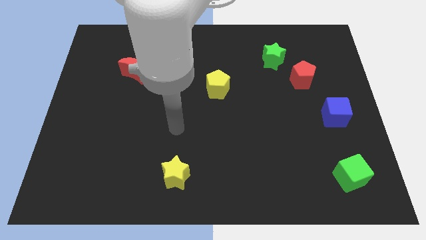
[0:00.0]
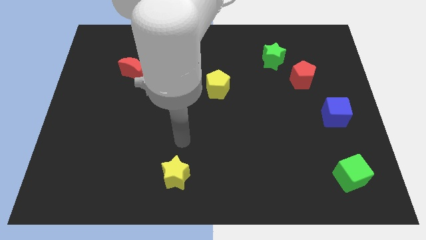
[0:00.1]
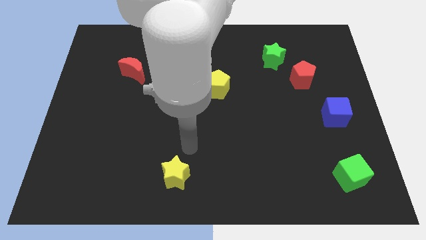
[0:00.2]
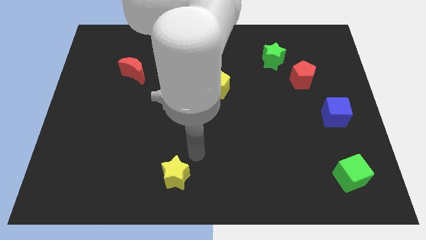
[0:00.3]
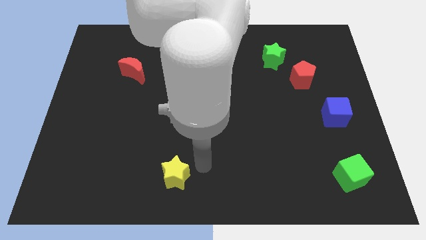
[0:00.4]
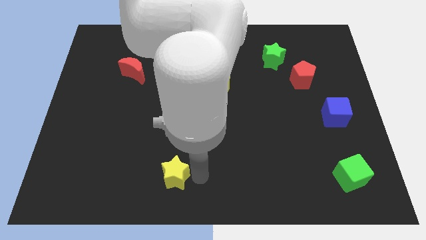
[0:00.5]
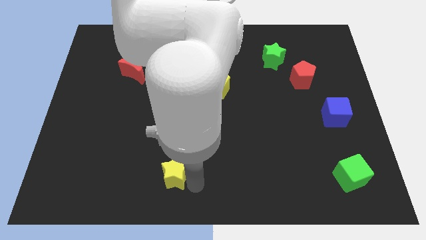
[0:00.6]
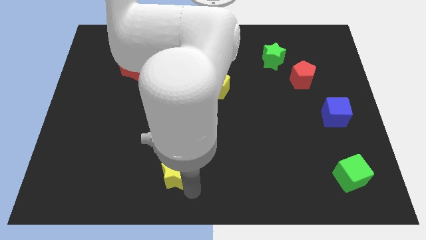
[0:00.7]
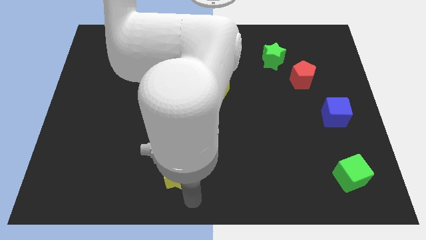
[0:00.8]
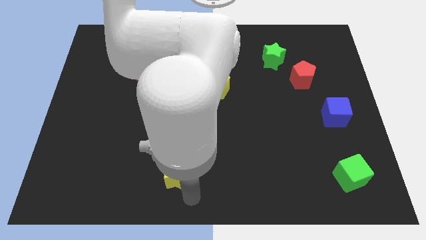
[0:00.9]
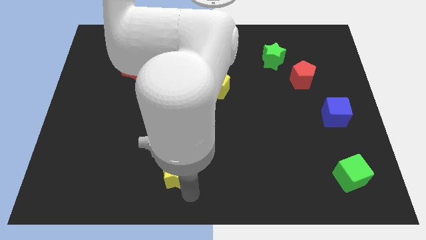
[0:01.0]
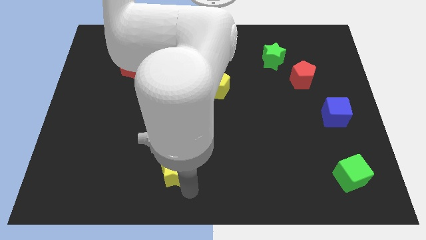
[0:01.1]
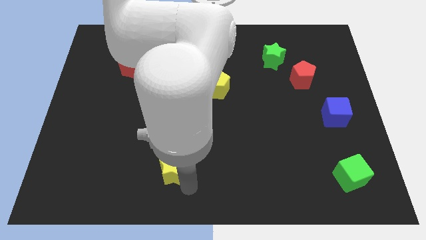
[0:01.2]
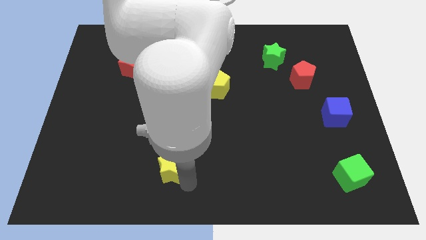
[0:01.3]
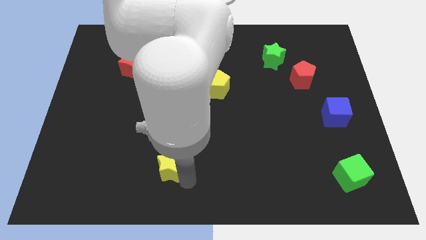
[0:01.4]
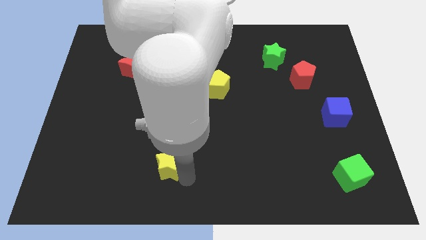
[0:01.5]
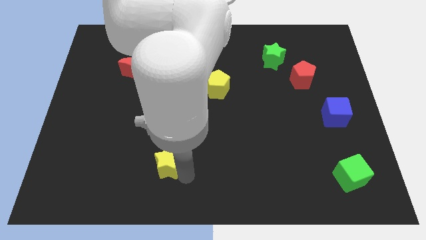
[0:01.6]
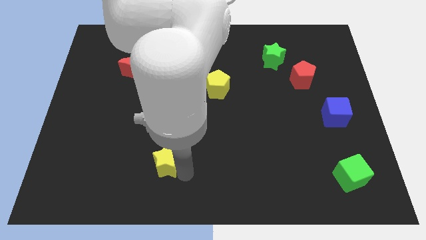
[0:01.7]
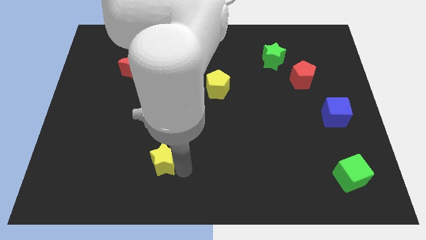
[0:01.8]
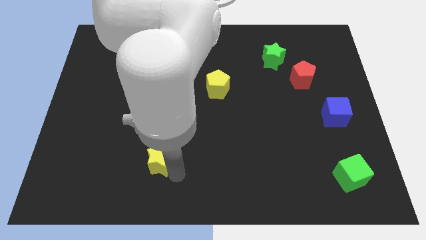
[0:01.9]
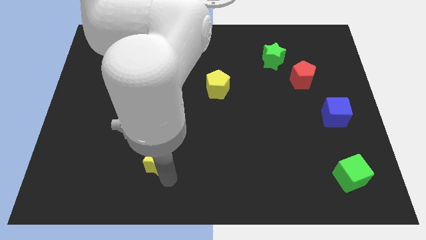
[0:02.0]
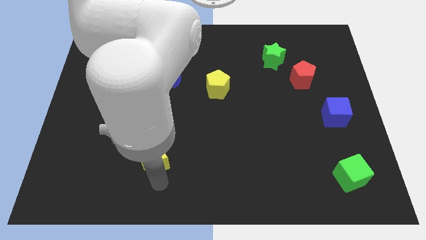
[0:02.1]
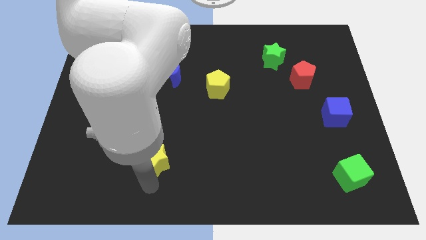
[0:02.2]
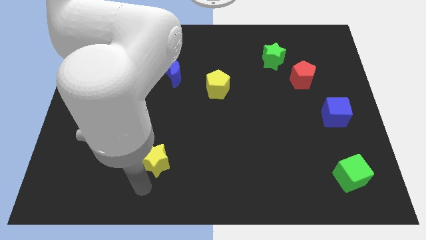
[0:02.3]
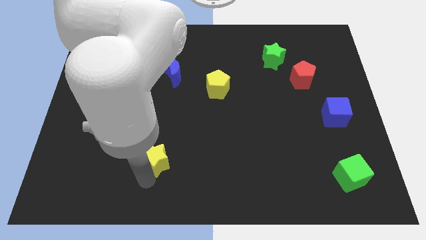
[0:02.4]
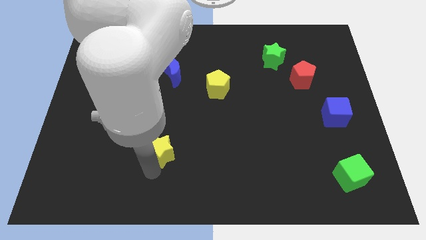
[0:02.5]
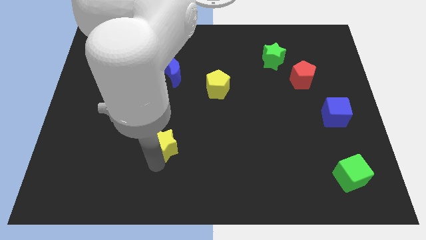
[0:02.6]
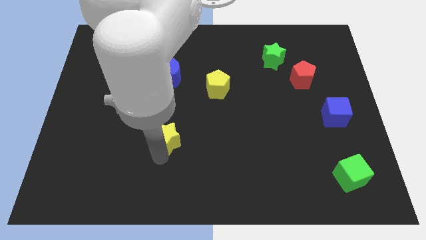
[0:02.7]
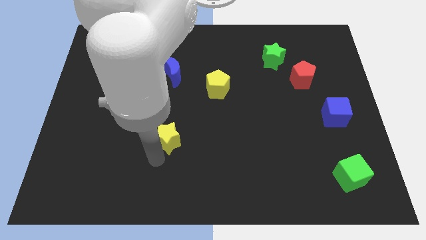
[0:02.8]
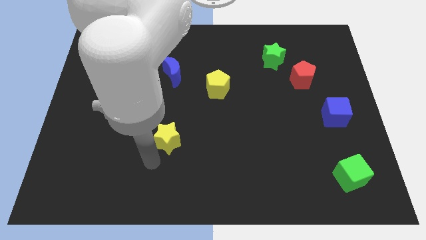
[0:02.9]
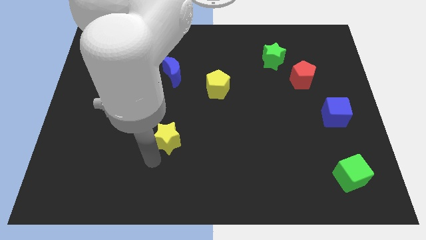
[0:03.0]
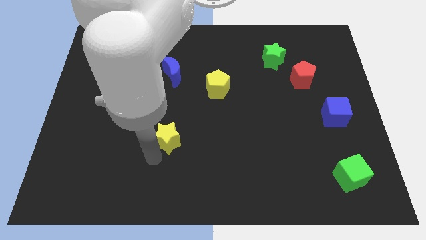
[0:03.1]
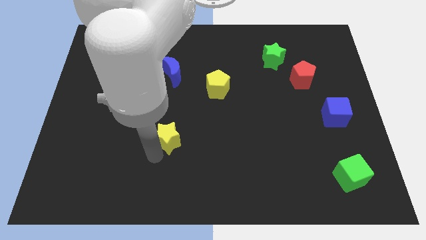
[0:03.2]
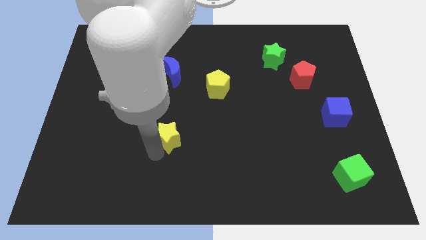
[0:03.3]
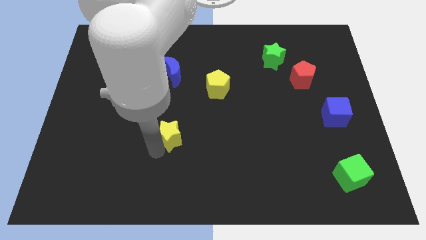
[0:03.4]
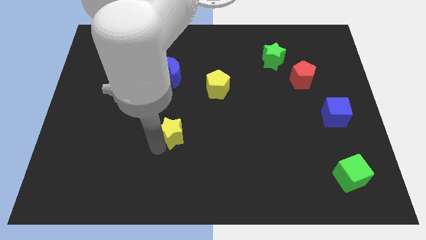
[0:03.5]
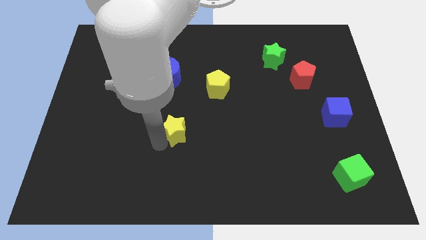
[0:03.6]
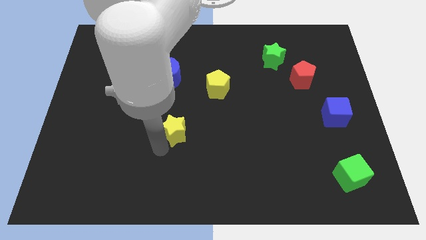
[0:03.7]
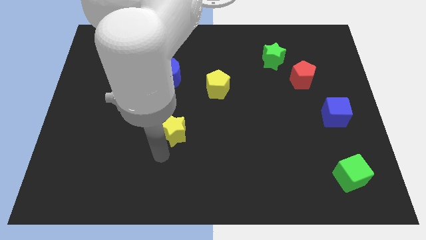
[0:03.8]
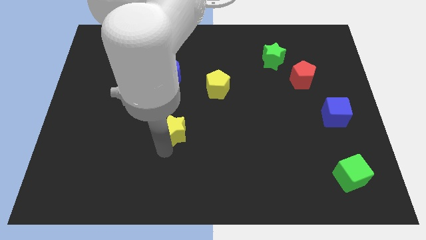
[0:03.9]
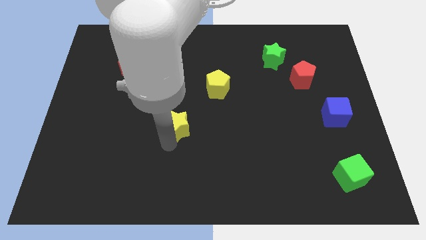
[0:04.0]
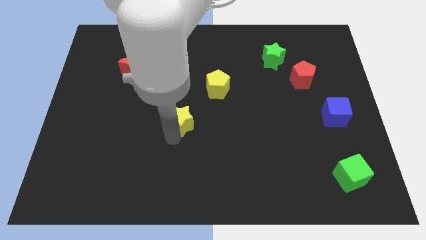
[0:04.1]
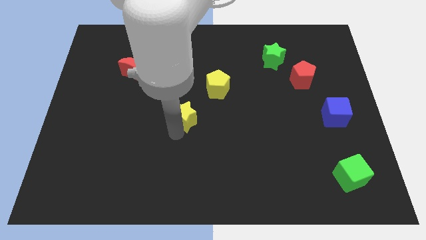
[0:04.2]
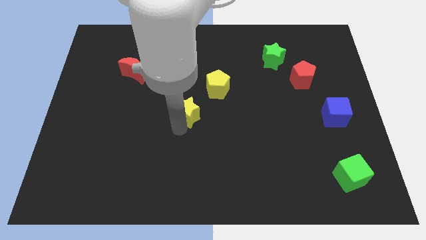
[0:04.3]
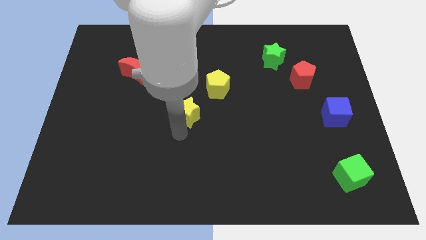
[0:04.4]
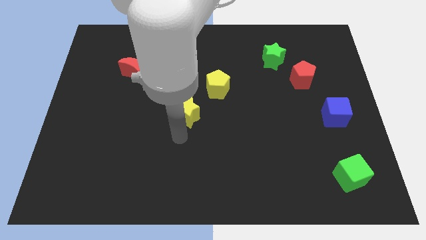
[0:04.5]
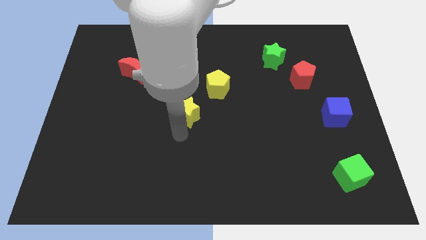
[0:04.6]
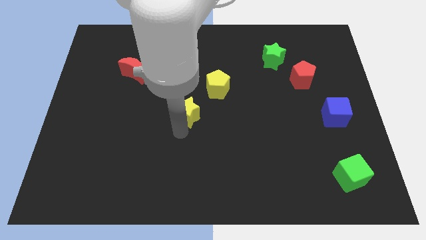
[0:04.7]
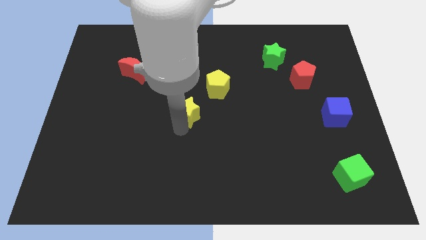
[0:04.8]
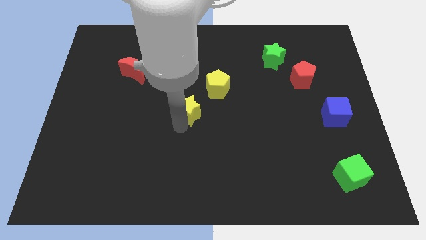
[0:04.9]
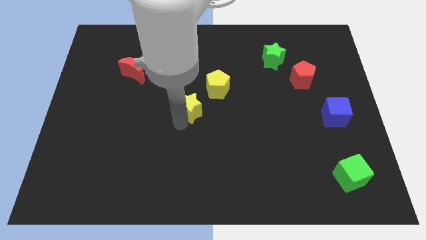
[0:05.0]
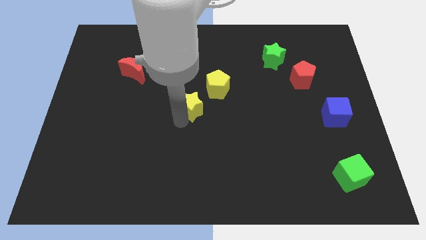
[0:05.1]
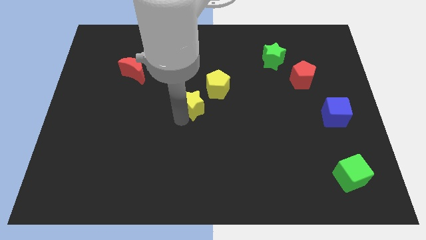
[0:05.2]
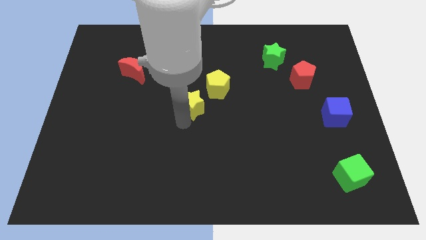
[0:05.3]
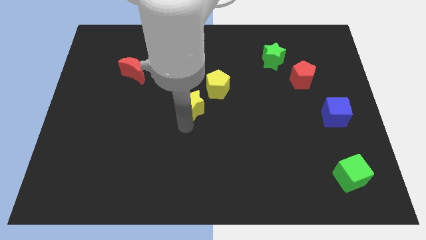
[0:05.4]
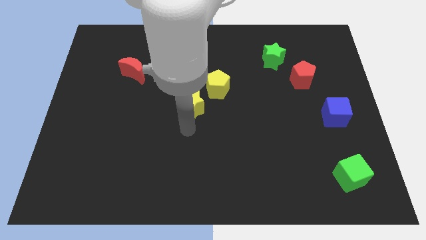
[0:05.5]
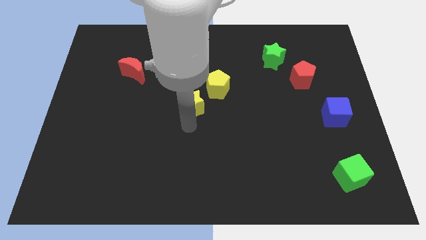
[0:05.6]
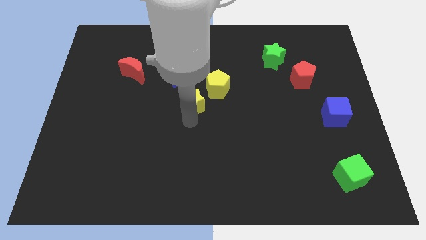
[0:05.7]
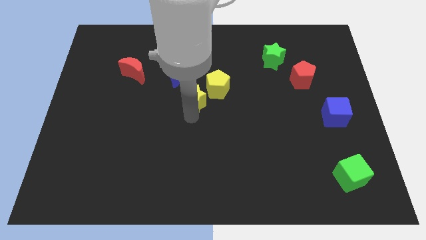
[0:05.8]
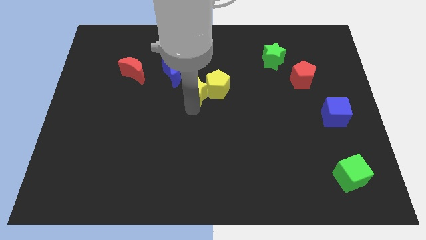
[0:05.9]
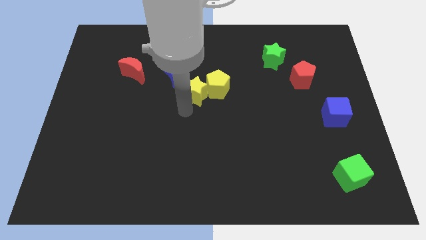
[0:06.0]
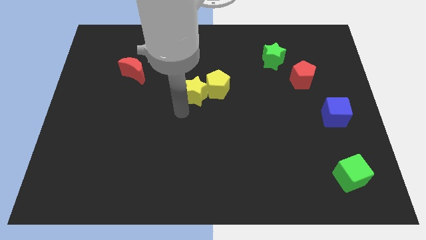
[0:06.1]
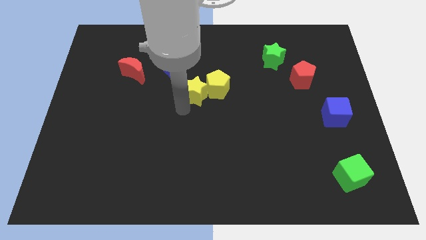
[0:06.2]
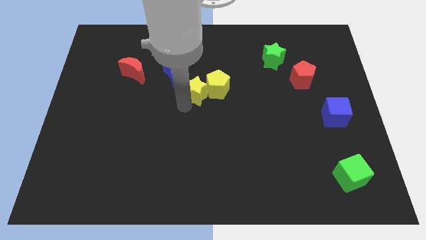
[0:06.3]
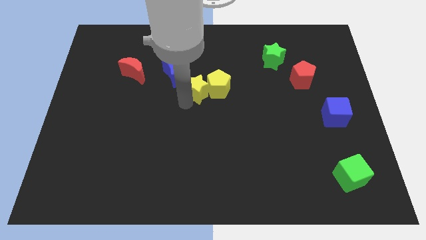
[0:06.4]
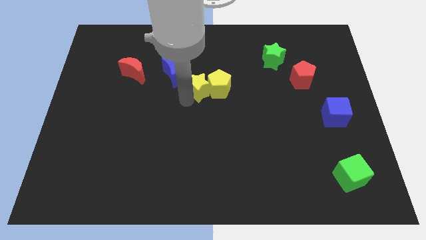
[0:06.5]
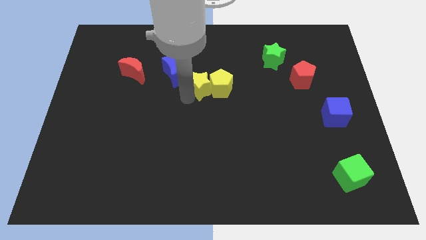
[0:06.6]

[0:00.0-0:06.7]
move the yellow star to the right side of the blue moon

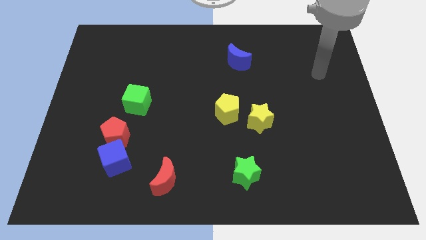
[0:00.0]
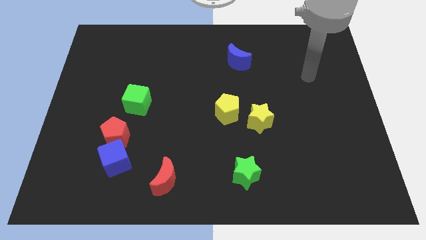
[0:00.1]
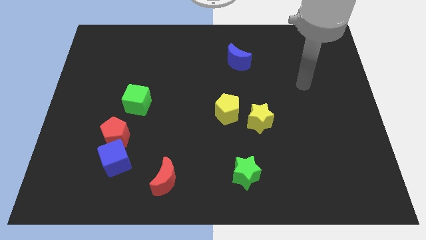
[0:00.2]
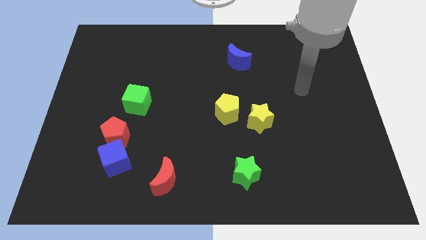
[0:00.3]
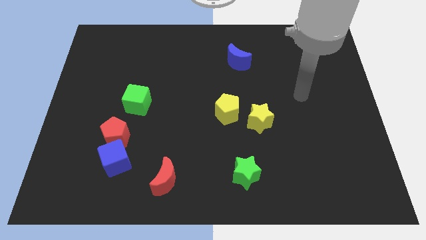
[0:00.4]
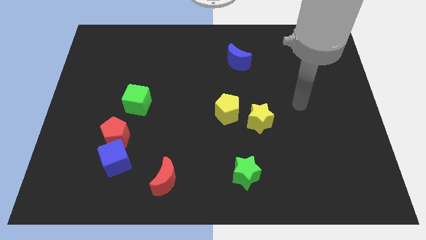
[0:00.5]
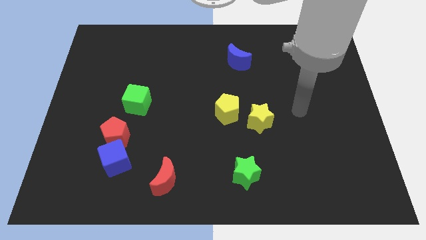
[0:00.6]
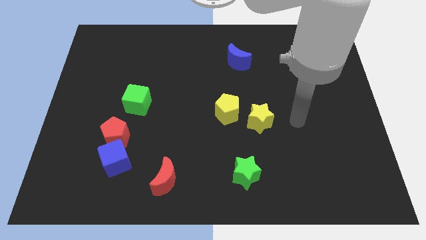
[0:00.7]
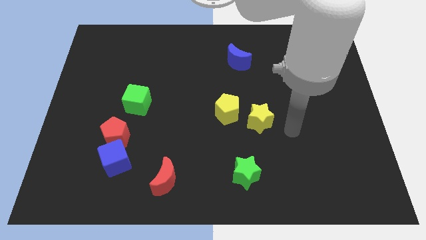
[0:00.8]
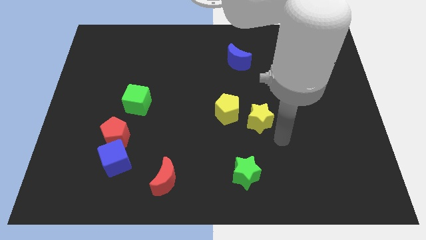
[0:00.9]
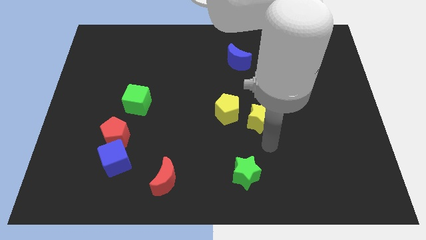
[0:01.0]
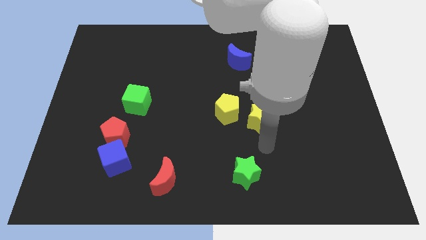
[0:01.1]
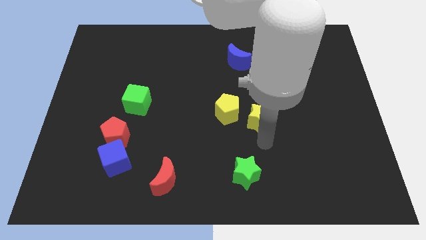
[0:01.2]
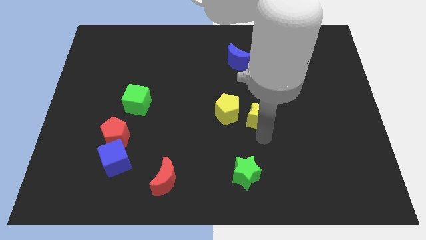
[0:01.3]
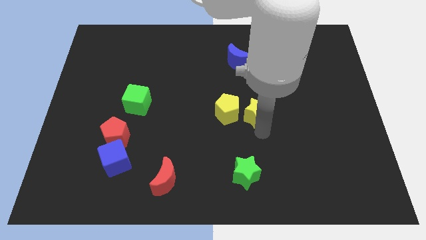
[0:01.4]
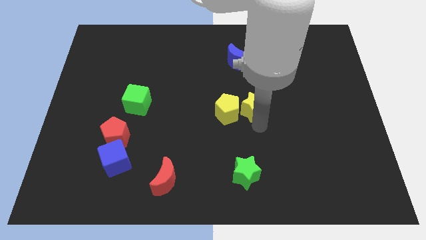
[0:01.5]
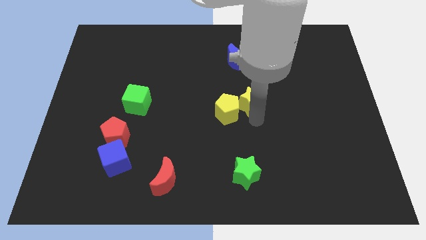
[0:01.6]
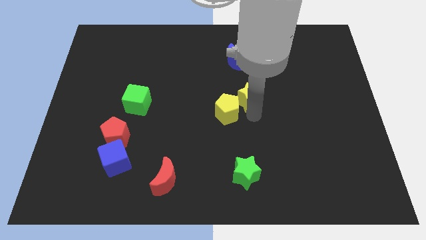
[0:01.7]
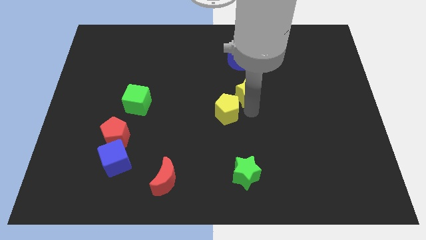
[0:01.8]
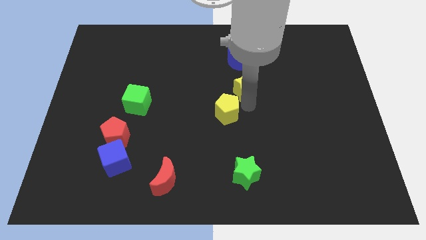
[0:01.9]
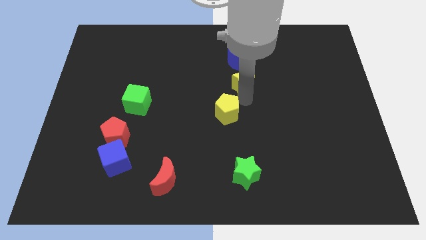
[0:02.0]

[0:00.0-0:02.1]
slide the yellow star to the bottom right of the blue moon
